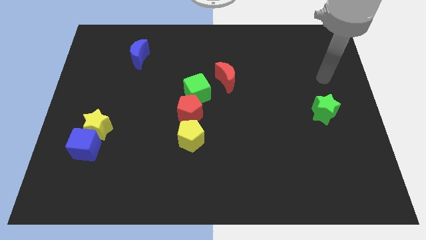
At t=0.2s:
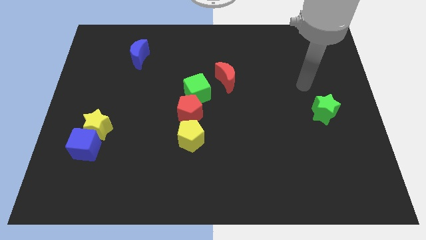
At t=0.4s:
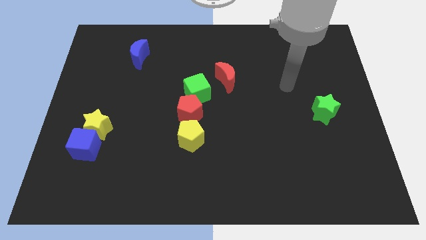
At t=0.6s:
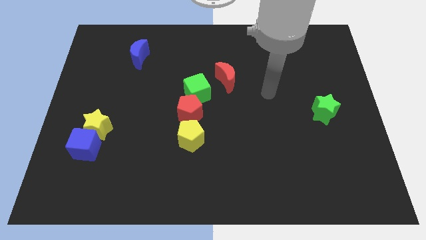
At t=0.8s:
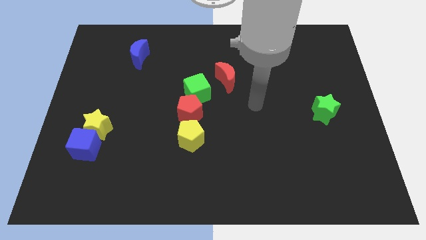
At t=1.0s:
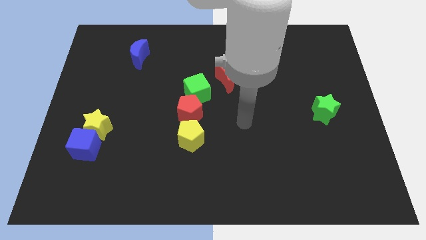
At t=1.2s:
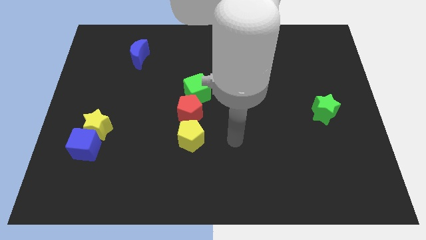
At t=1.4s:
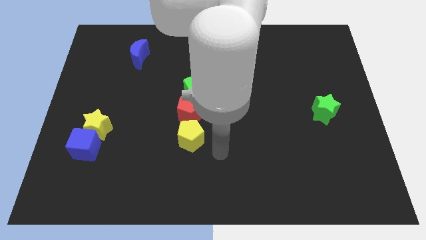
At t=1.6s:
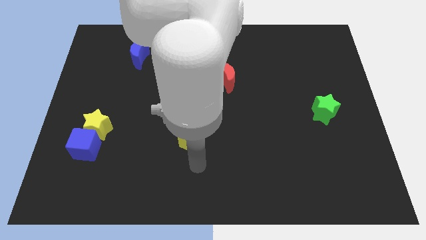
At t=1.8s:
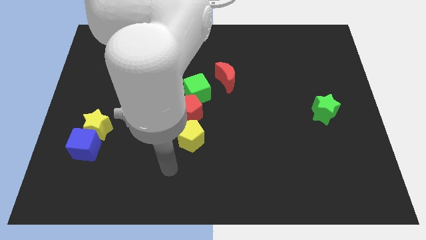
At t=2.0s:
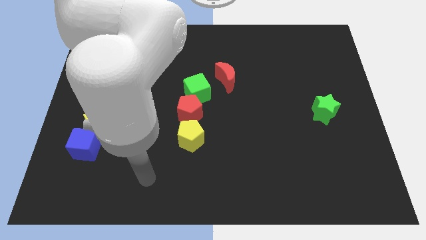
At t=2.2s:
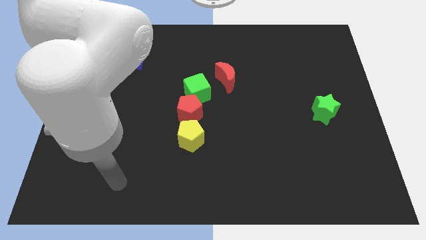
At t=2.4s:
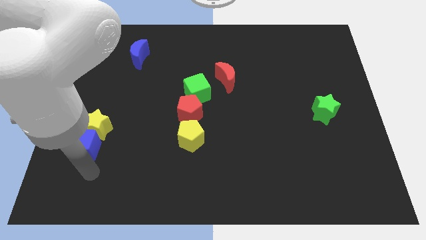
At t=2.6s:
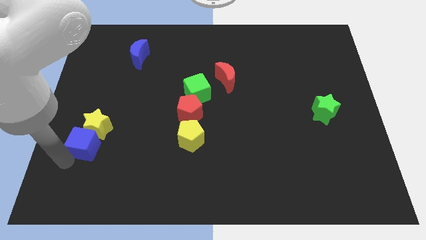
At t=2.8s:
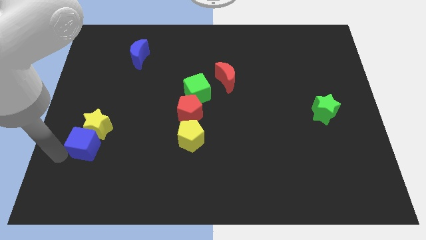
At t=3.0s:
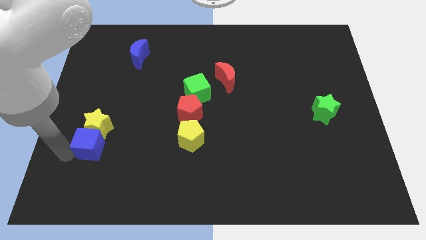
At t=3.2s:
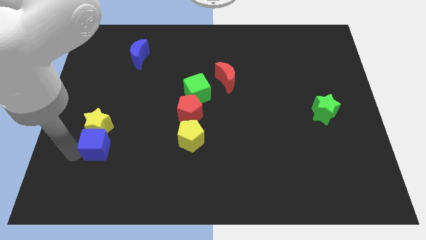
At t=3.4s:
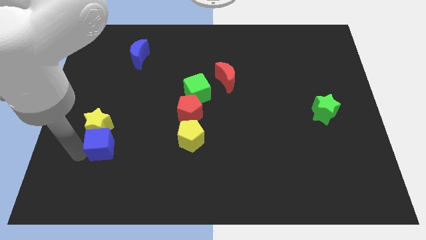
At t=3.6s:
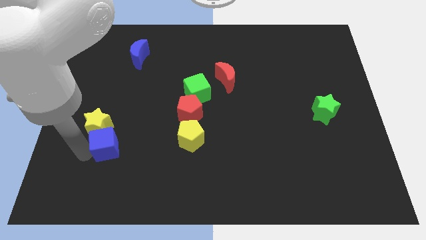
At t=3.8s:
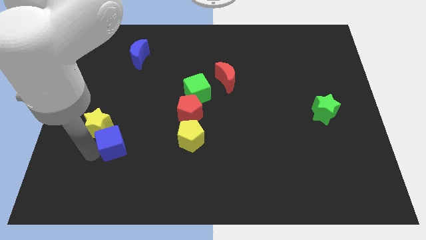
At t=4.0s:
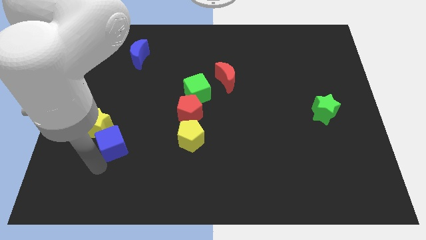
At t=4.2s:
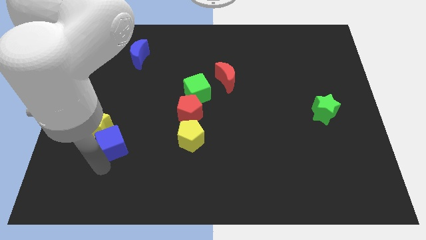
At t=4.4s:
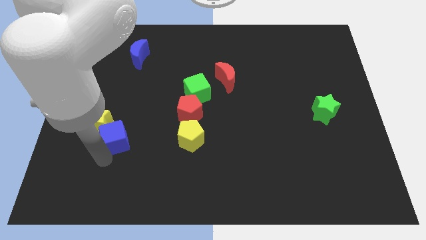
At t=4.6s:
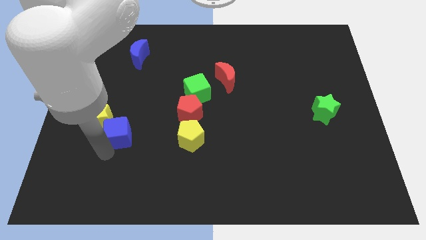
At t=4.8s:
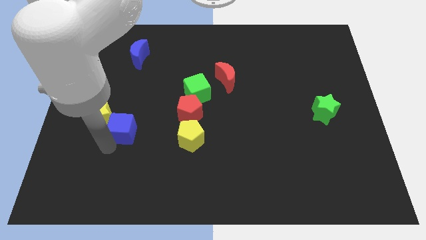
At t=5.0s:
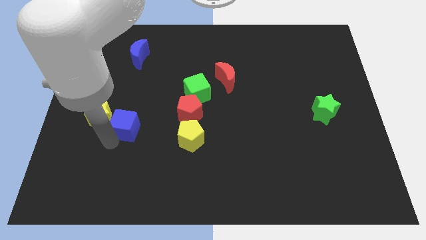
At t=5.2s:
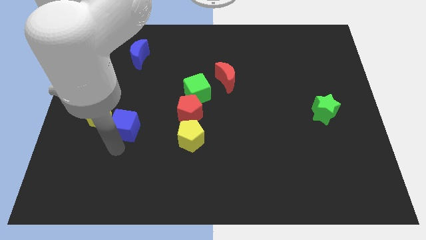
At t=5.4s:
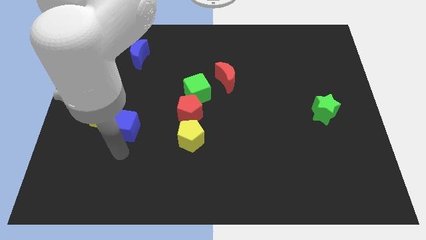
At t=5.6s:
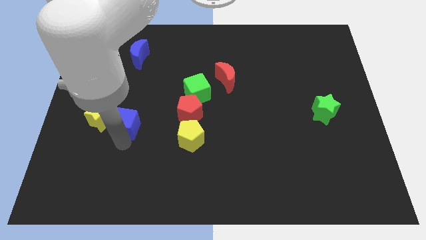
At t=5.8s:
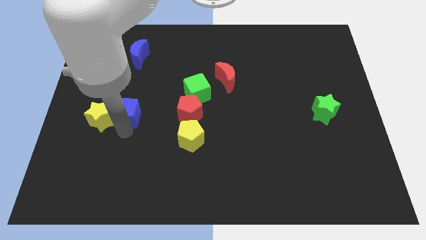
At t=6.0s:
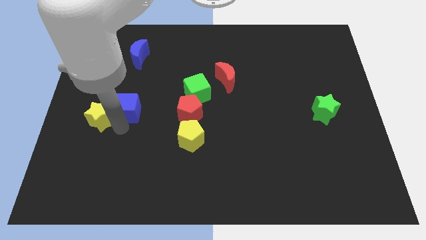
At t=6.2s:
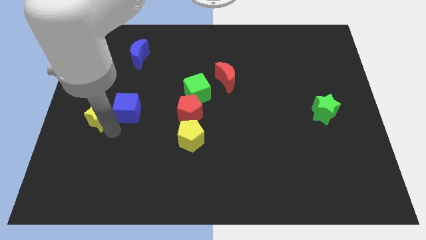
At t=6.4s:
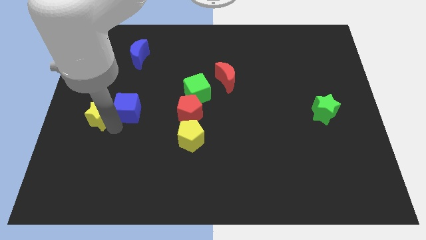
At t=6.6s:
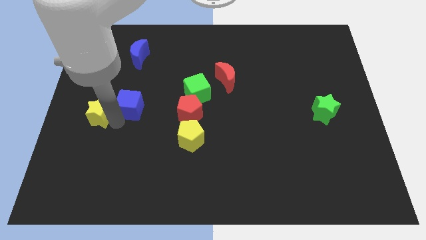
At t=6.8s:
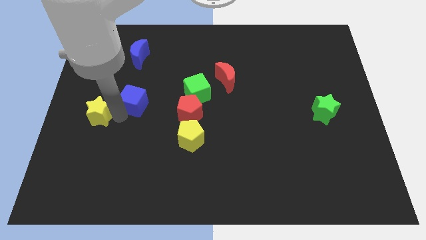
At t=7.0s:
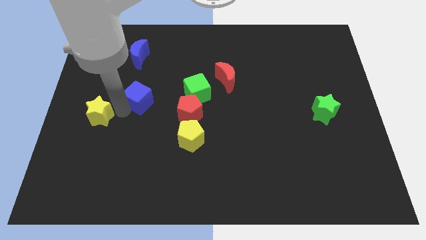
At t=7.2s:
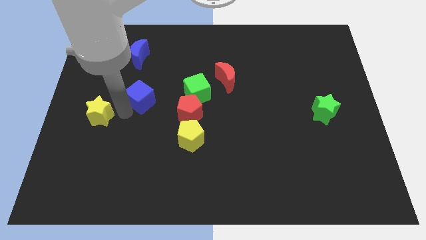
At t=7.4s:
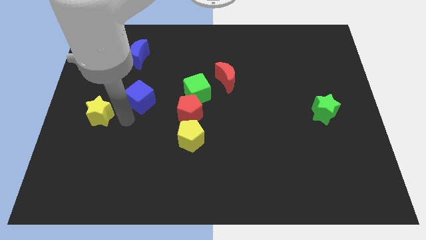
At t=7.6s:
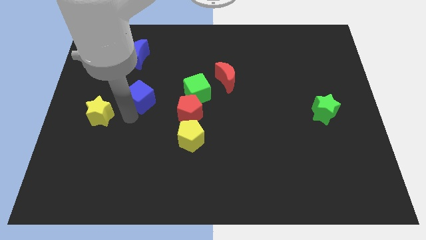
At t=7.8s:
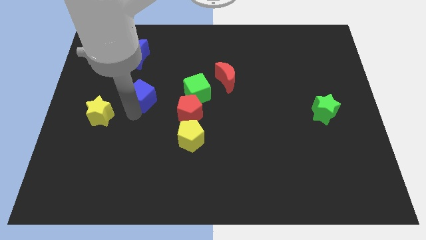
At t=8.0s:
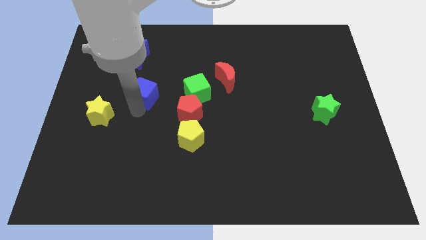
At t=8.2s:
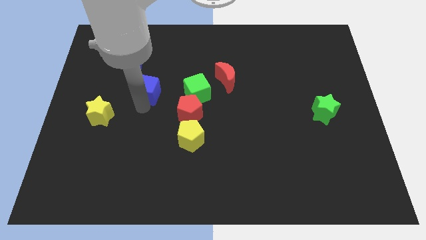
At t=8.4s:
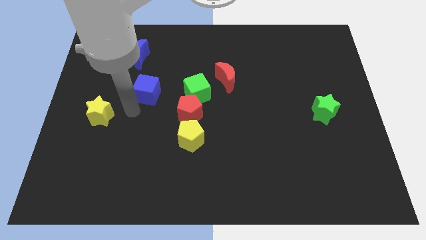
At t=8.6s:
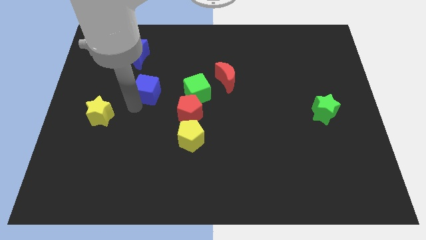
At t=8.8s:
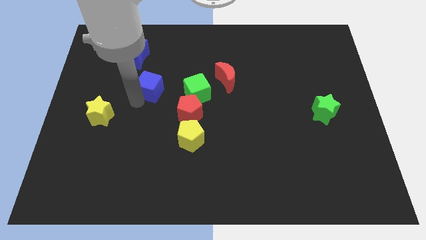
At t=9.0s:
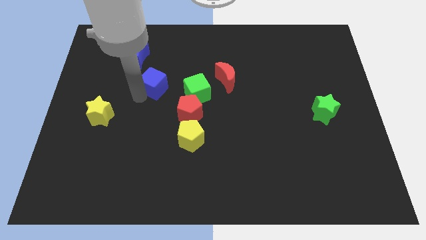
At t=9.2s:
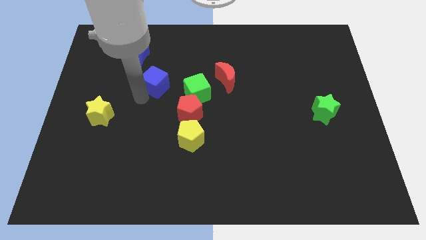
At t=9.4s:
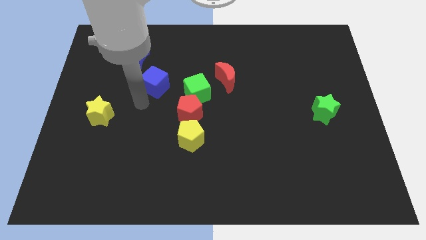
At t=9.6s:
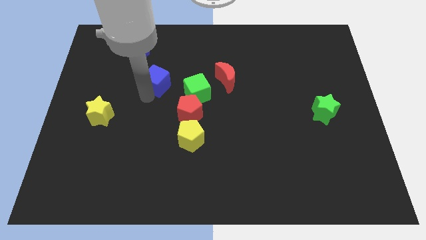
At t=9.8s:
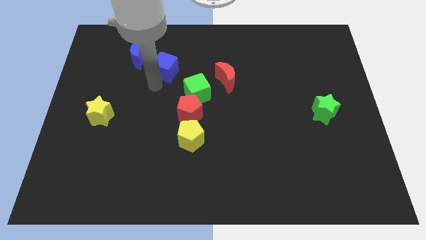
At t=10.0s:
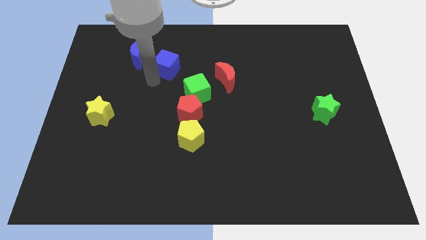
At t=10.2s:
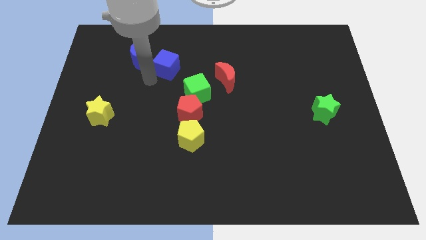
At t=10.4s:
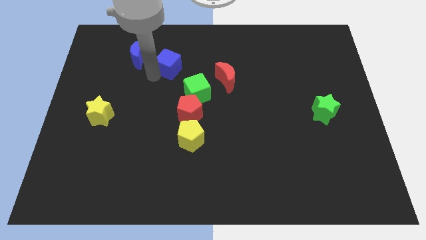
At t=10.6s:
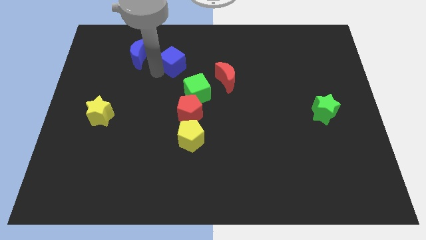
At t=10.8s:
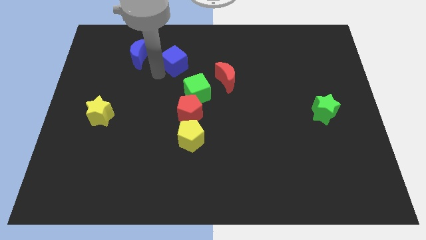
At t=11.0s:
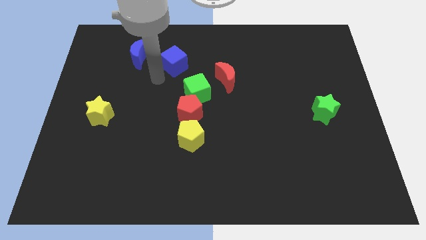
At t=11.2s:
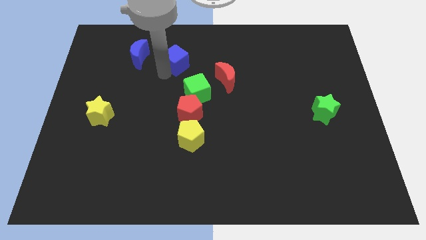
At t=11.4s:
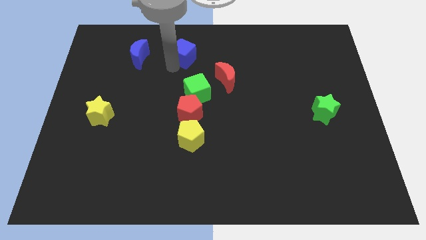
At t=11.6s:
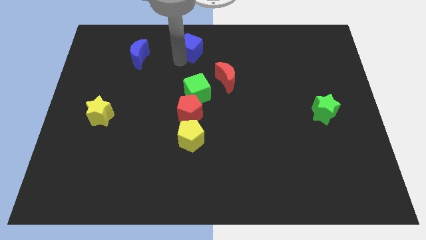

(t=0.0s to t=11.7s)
slide the blue cube to the top side

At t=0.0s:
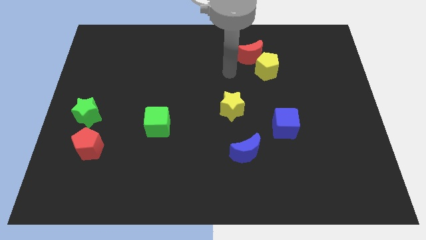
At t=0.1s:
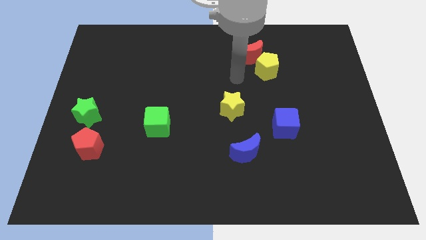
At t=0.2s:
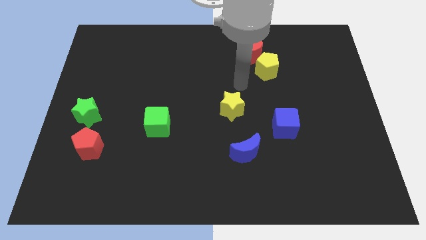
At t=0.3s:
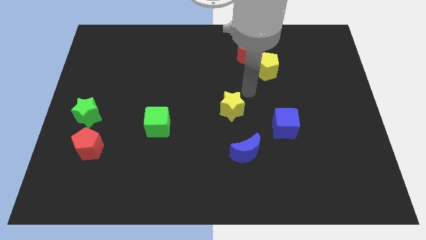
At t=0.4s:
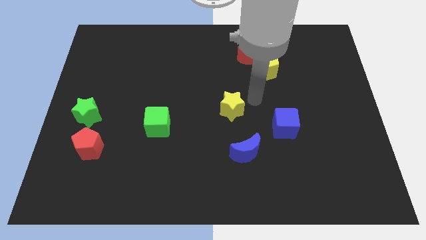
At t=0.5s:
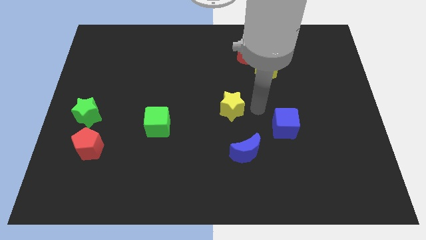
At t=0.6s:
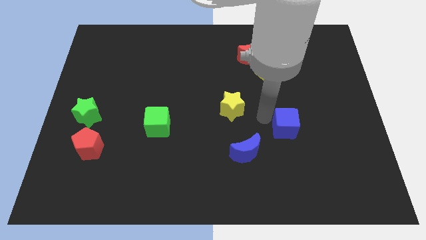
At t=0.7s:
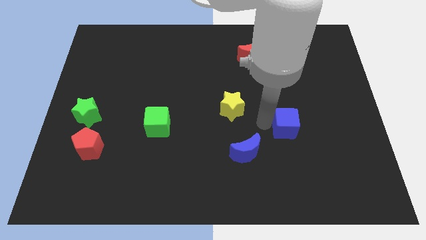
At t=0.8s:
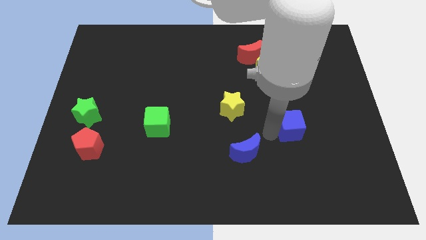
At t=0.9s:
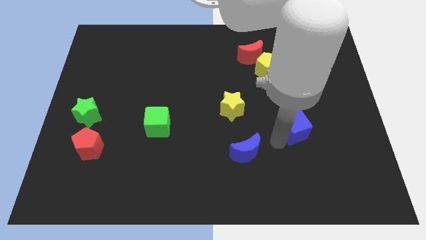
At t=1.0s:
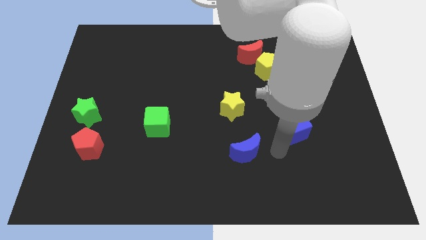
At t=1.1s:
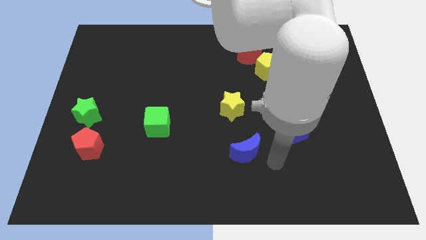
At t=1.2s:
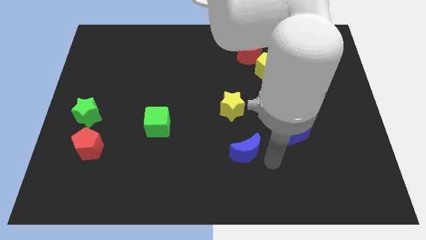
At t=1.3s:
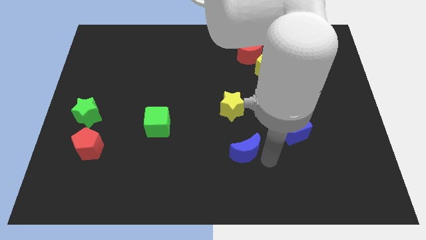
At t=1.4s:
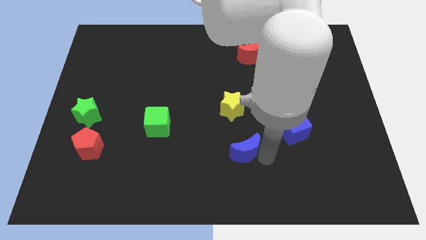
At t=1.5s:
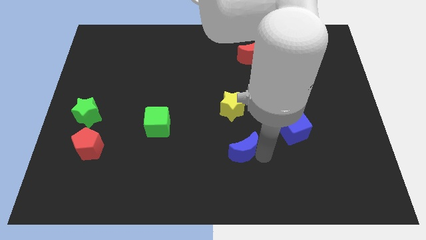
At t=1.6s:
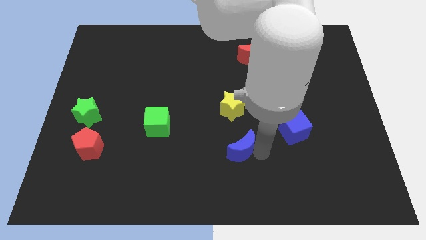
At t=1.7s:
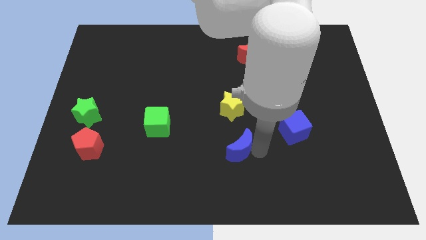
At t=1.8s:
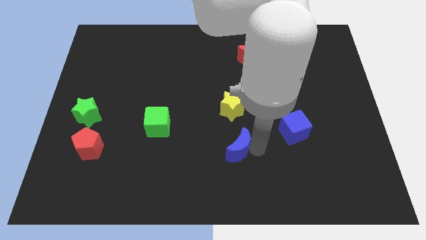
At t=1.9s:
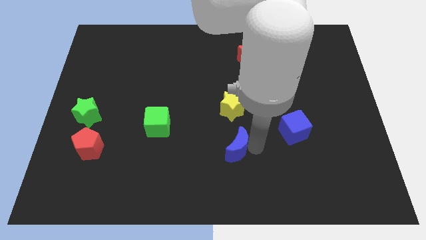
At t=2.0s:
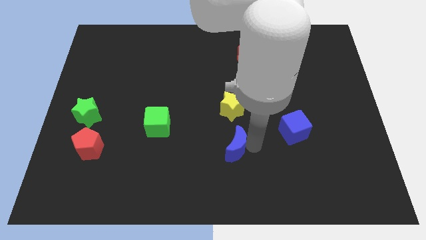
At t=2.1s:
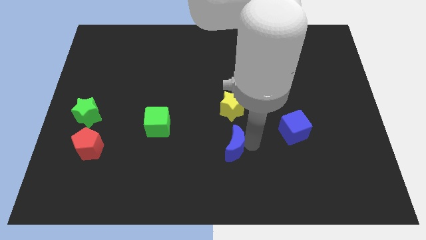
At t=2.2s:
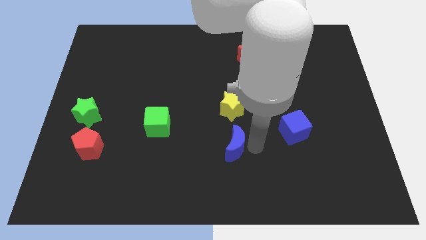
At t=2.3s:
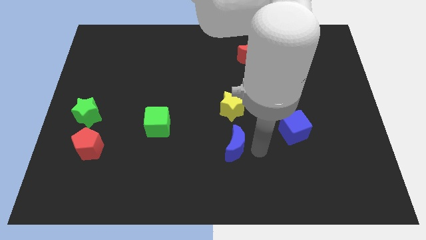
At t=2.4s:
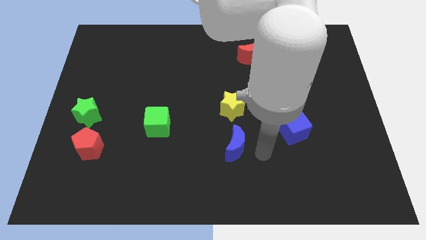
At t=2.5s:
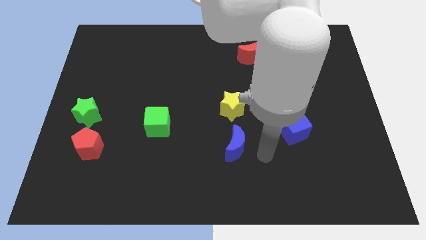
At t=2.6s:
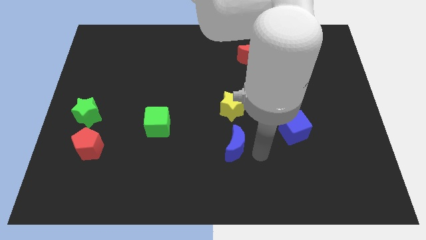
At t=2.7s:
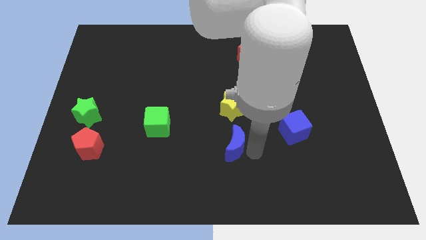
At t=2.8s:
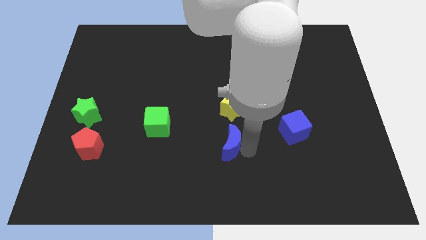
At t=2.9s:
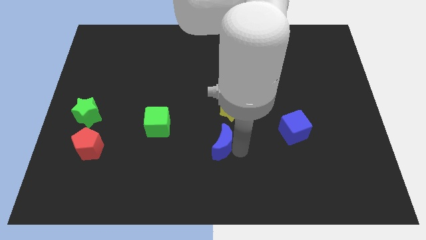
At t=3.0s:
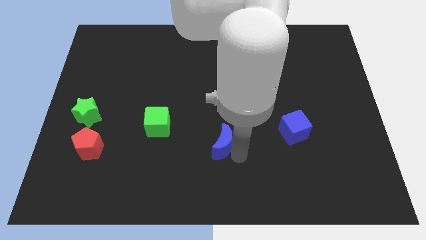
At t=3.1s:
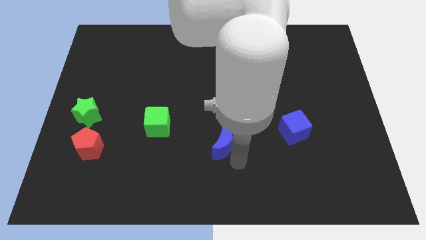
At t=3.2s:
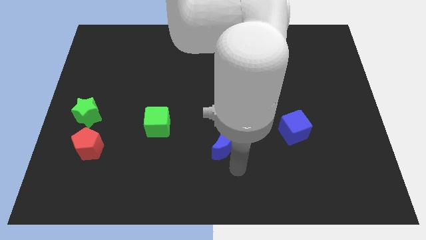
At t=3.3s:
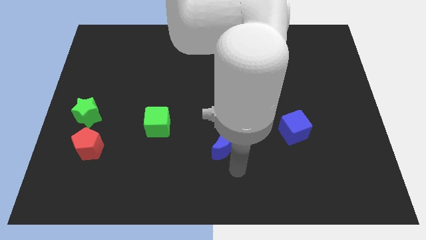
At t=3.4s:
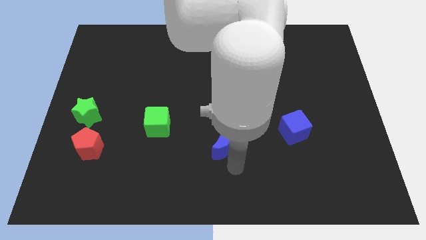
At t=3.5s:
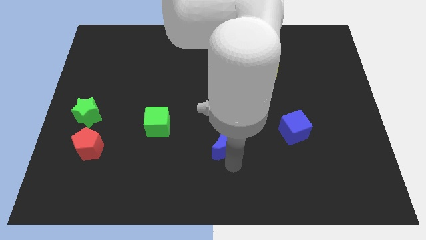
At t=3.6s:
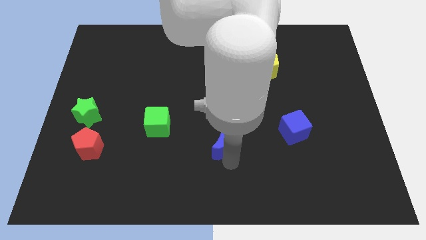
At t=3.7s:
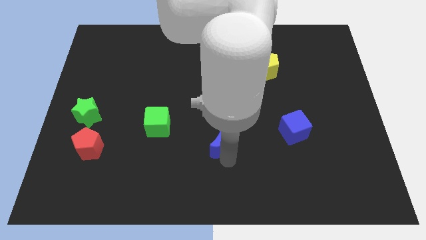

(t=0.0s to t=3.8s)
push the blue moon to the center of the board
